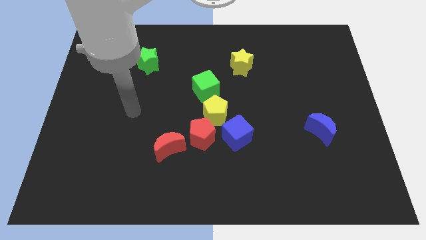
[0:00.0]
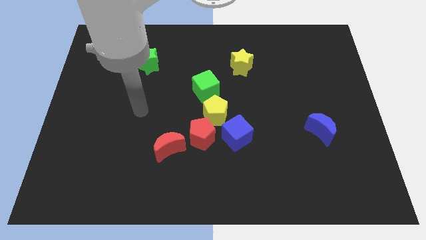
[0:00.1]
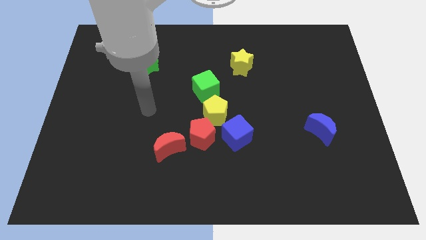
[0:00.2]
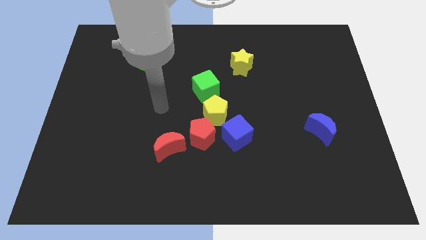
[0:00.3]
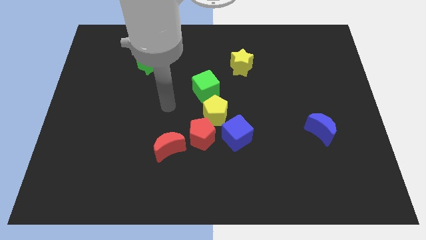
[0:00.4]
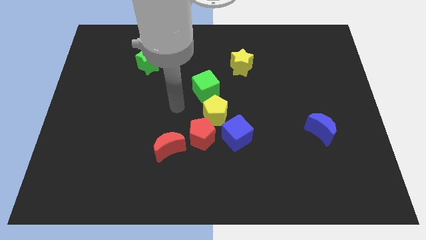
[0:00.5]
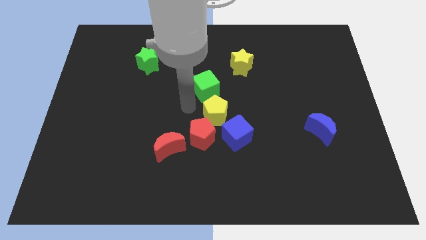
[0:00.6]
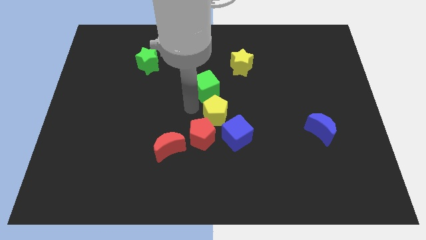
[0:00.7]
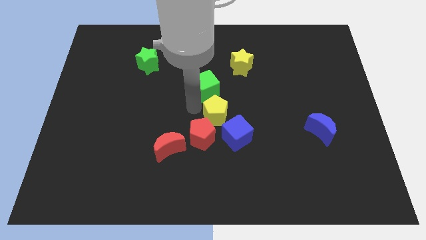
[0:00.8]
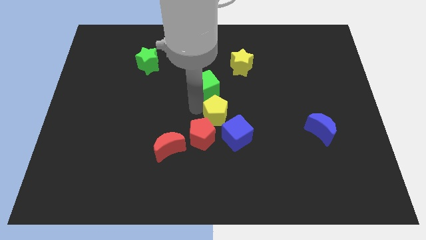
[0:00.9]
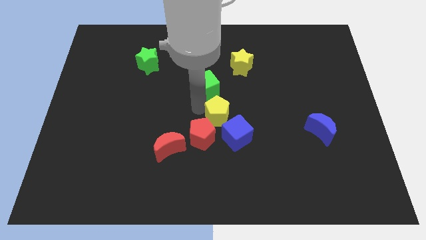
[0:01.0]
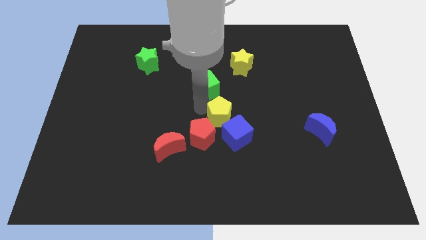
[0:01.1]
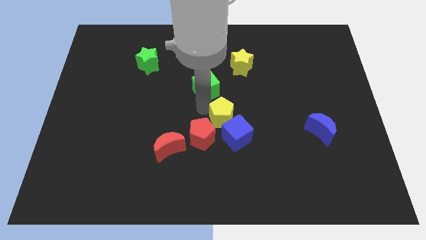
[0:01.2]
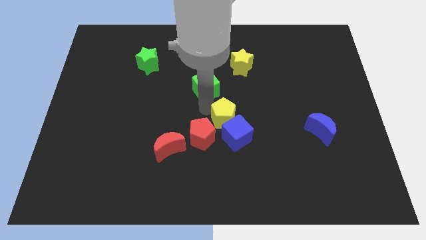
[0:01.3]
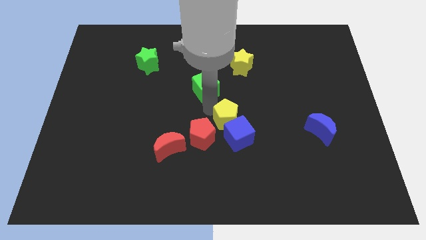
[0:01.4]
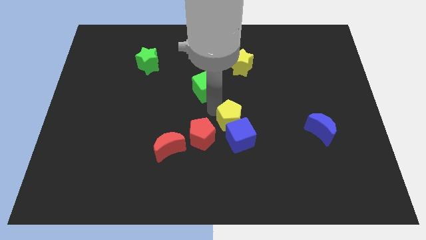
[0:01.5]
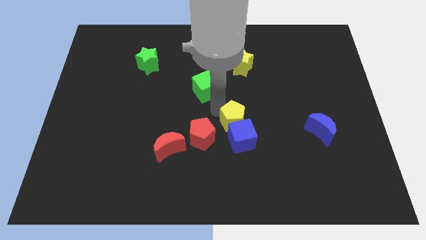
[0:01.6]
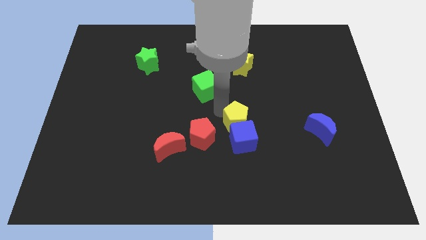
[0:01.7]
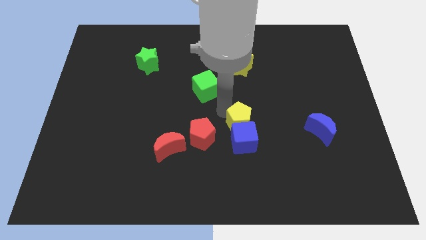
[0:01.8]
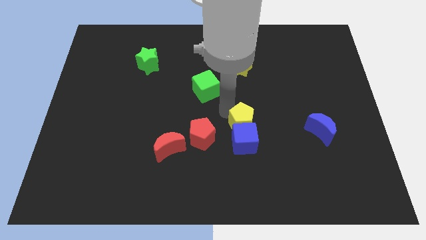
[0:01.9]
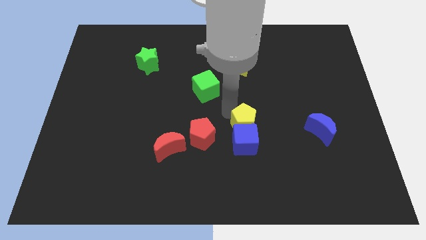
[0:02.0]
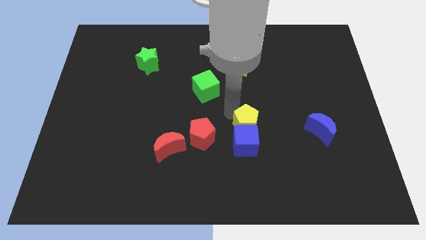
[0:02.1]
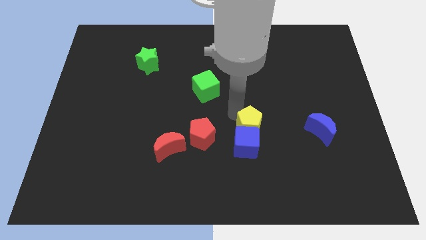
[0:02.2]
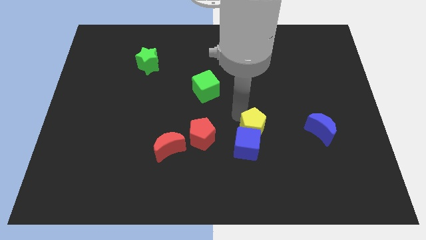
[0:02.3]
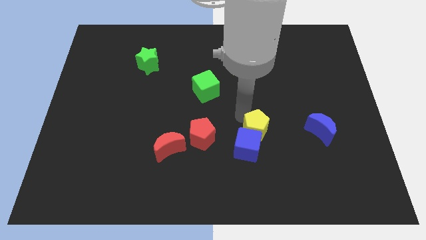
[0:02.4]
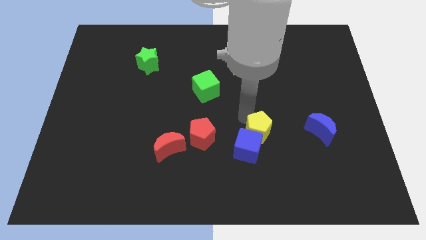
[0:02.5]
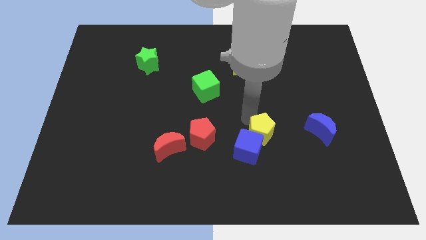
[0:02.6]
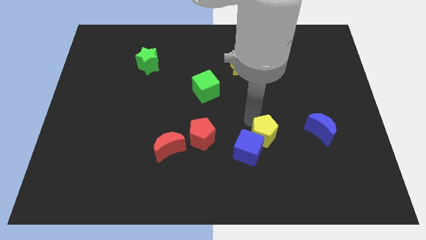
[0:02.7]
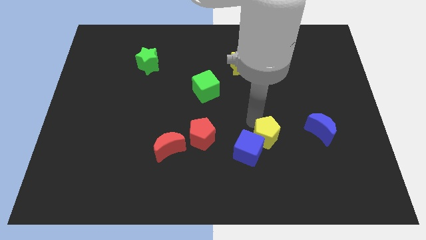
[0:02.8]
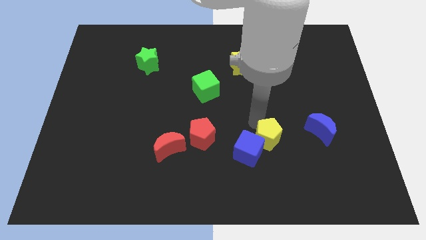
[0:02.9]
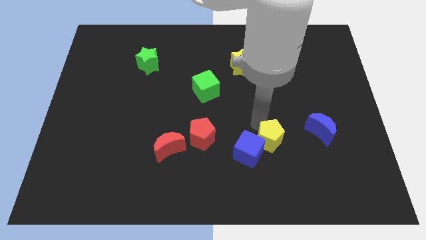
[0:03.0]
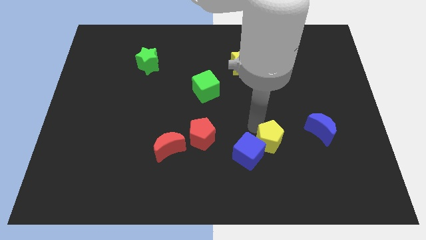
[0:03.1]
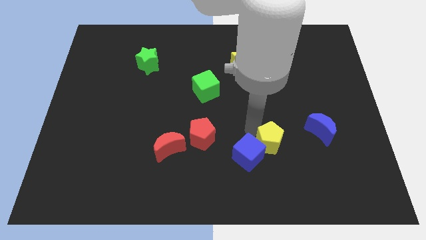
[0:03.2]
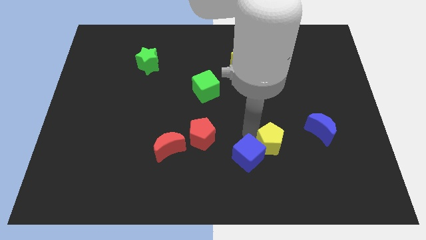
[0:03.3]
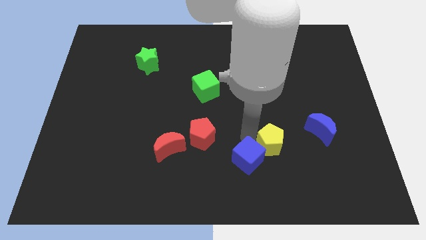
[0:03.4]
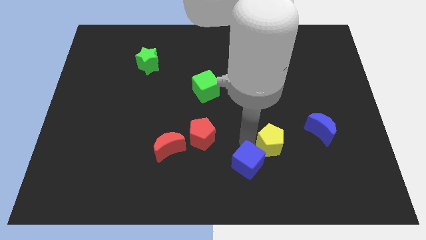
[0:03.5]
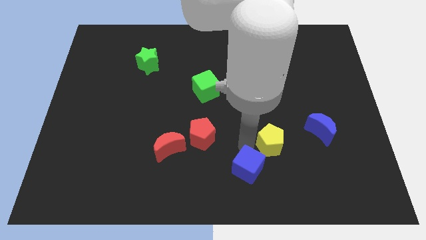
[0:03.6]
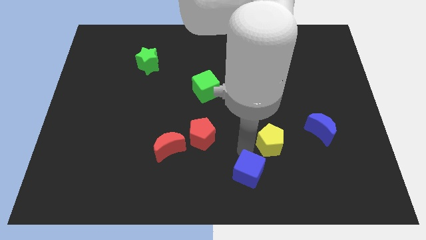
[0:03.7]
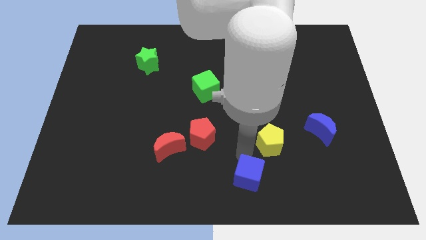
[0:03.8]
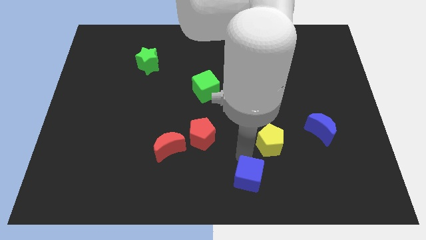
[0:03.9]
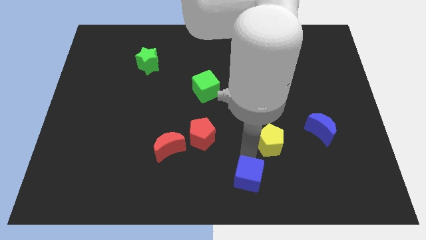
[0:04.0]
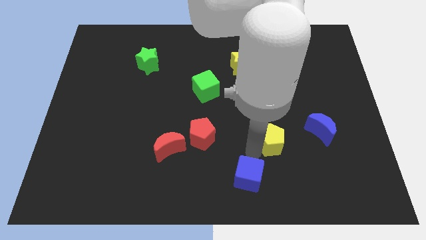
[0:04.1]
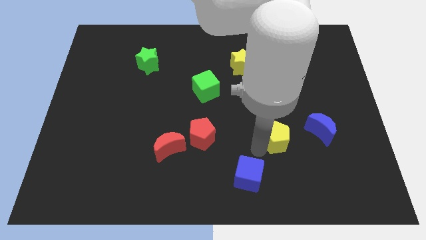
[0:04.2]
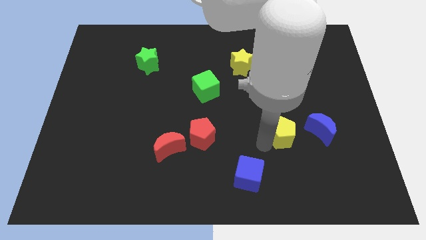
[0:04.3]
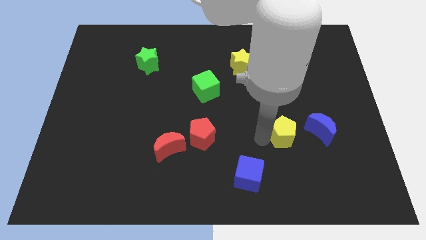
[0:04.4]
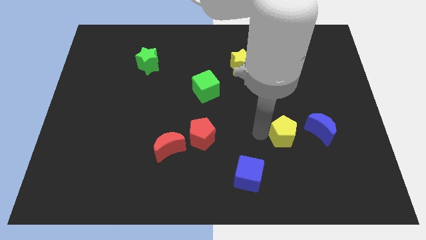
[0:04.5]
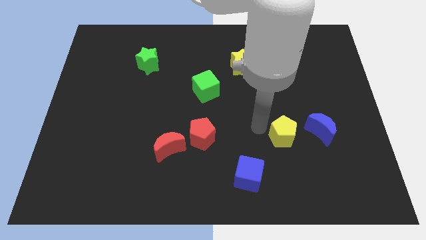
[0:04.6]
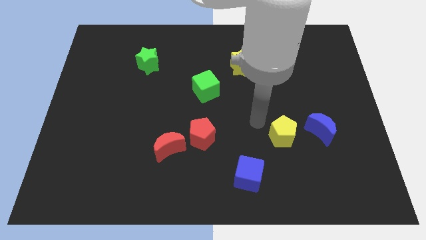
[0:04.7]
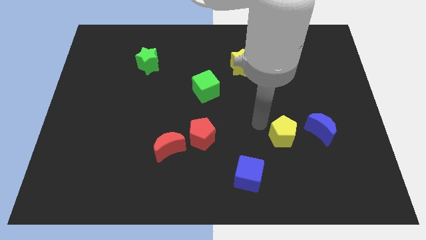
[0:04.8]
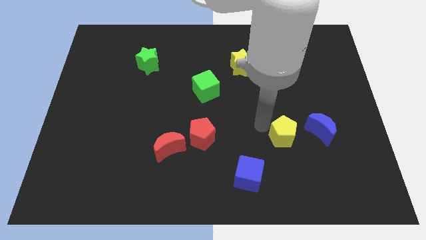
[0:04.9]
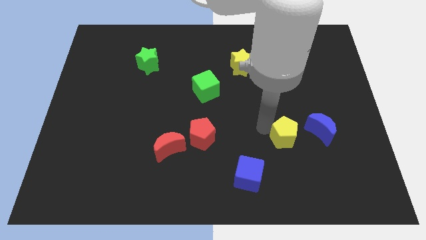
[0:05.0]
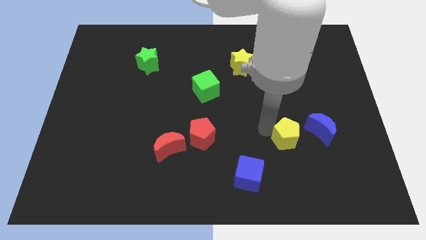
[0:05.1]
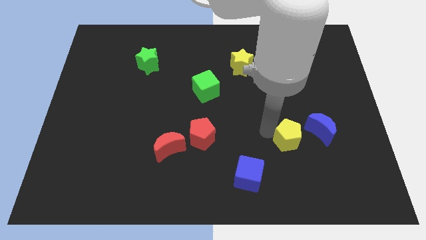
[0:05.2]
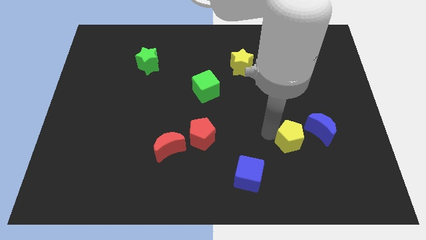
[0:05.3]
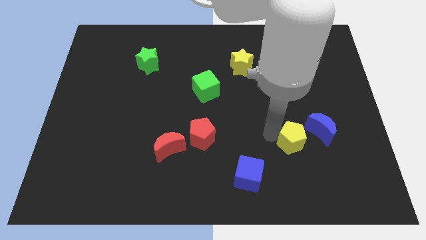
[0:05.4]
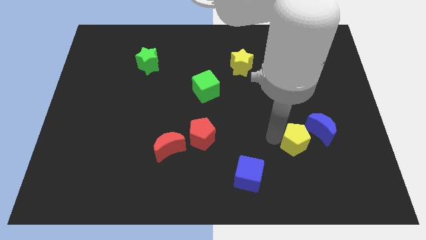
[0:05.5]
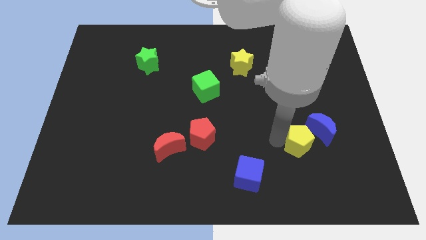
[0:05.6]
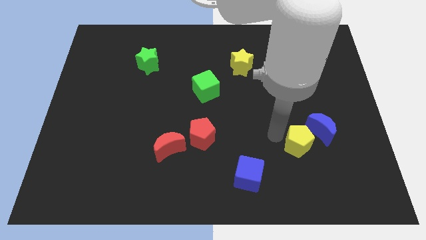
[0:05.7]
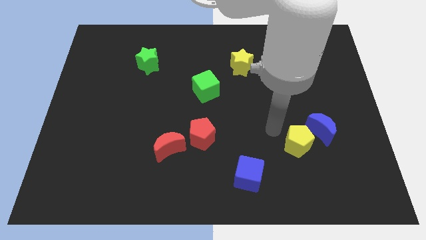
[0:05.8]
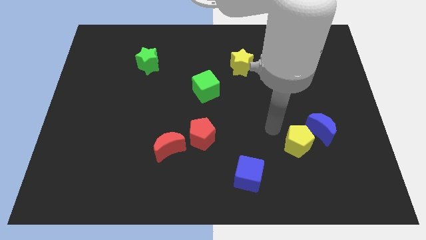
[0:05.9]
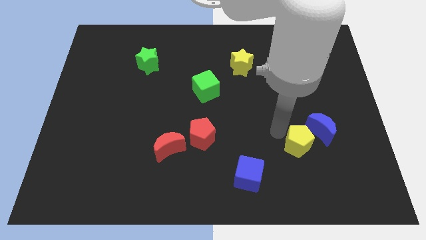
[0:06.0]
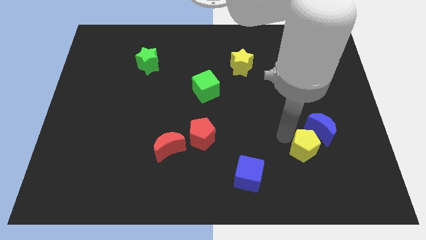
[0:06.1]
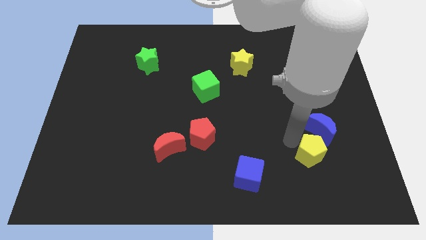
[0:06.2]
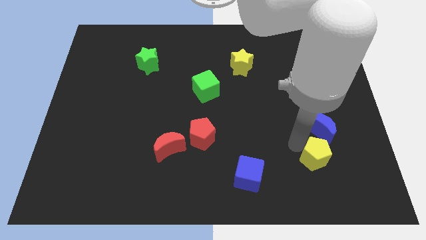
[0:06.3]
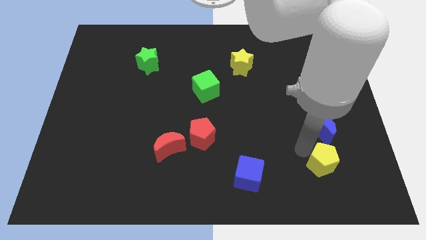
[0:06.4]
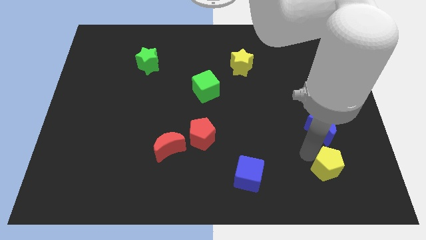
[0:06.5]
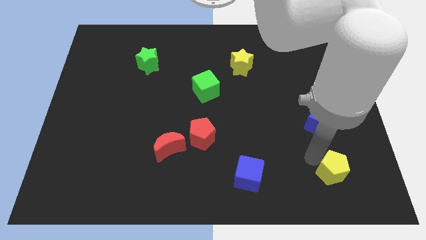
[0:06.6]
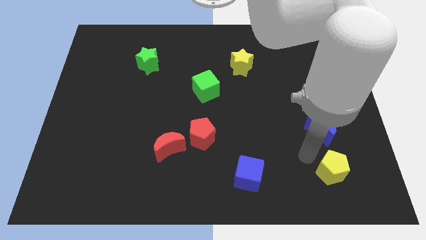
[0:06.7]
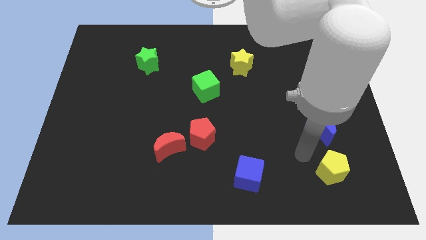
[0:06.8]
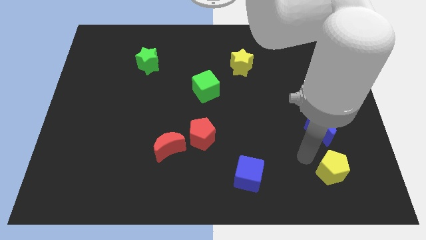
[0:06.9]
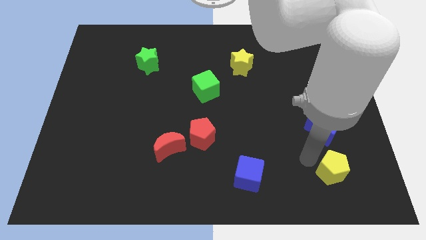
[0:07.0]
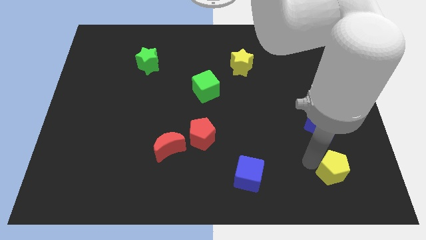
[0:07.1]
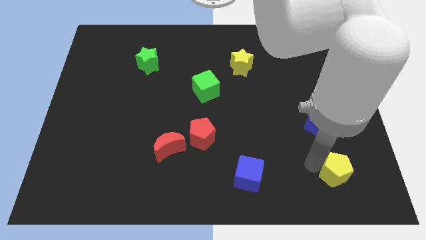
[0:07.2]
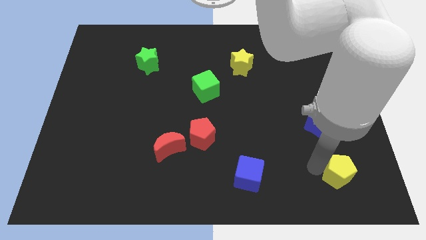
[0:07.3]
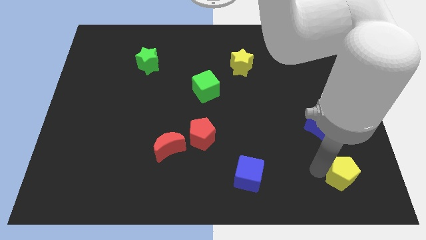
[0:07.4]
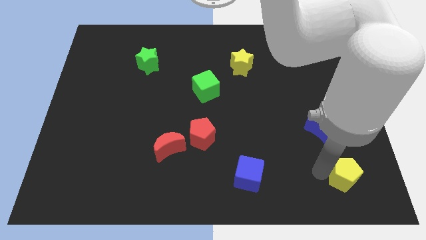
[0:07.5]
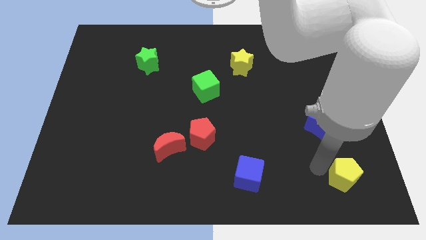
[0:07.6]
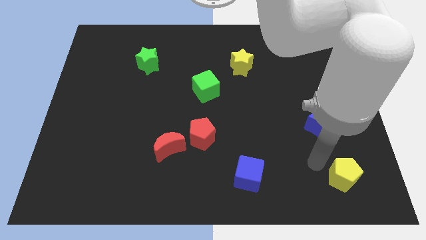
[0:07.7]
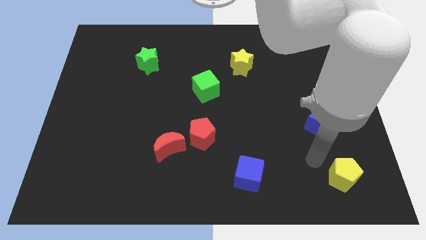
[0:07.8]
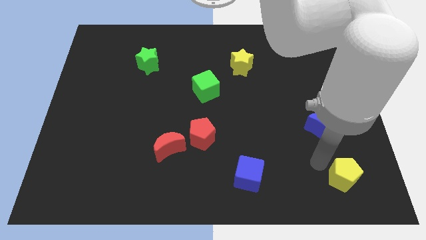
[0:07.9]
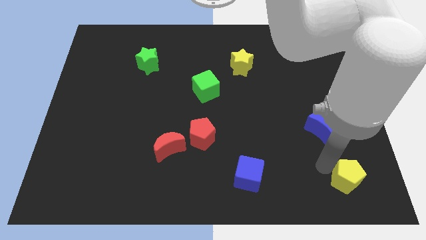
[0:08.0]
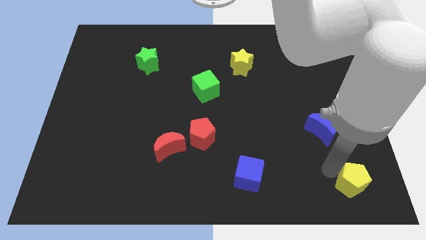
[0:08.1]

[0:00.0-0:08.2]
put the yellow pentagon to the bottom right corner

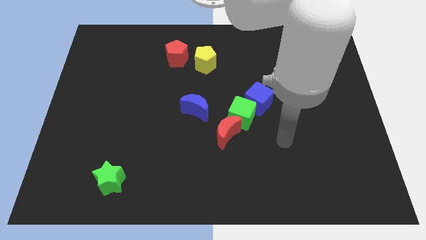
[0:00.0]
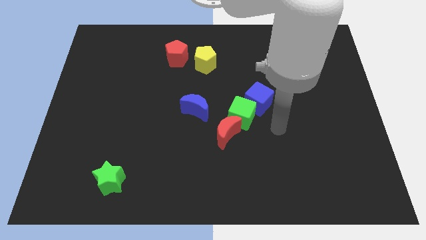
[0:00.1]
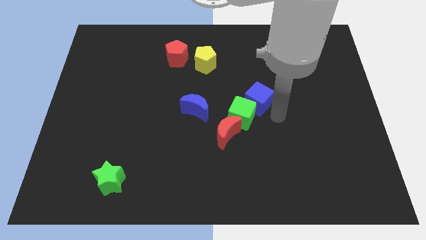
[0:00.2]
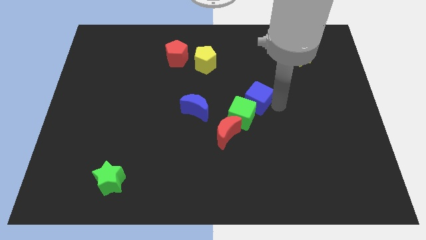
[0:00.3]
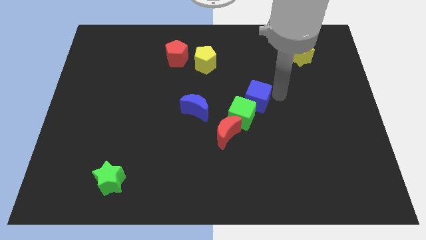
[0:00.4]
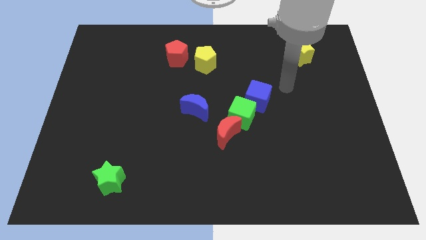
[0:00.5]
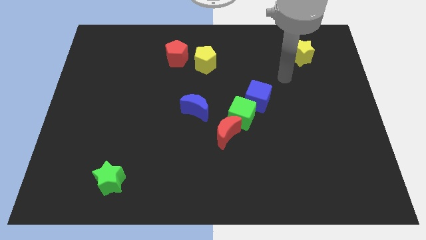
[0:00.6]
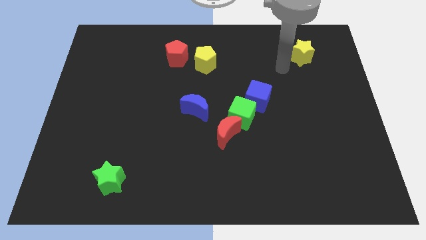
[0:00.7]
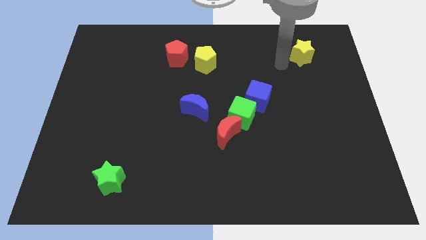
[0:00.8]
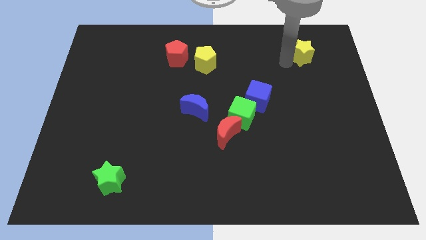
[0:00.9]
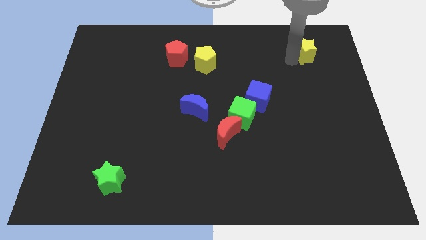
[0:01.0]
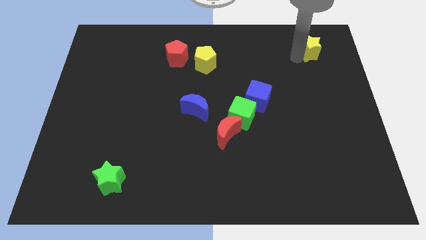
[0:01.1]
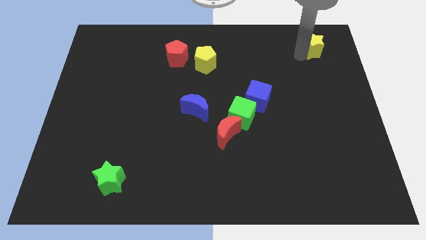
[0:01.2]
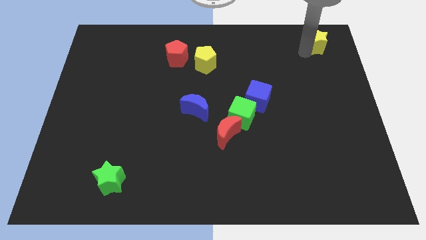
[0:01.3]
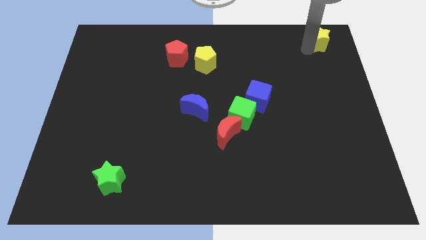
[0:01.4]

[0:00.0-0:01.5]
move the yellow star to the top right corner
